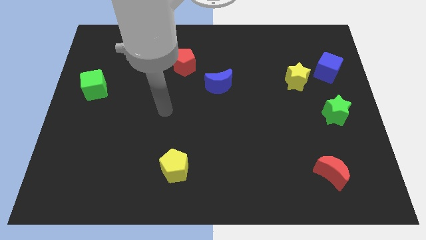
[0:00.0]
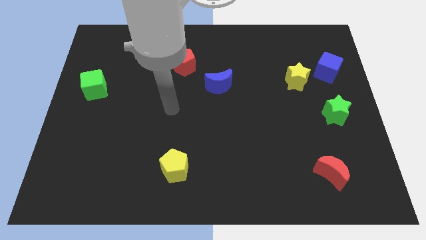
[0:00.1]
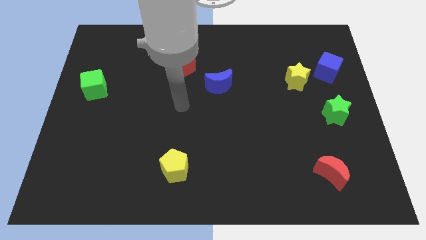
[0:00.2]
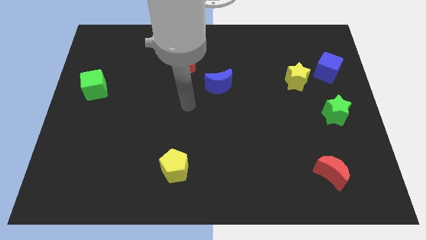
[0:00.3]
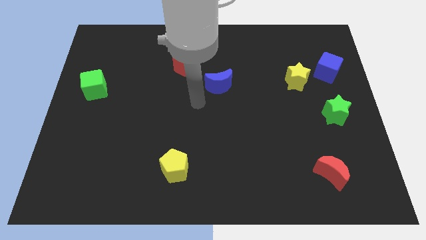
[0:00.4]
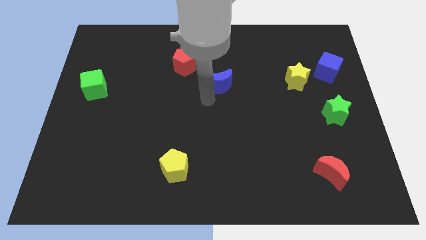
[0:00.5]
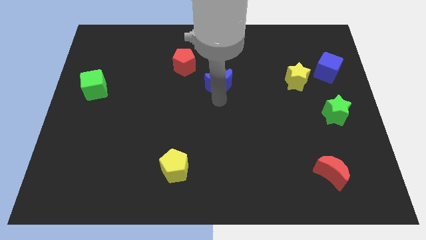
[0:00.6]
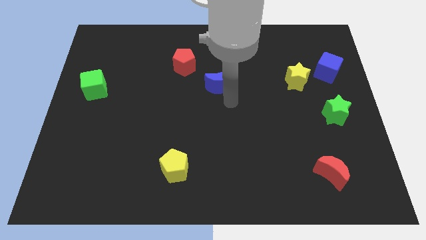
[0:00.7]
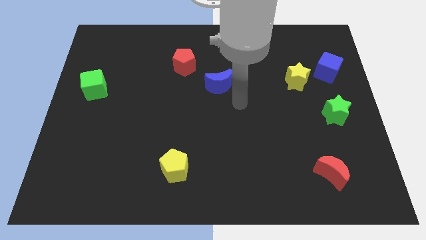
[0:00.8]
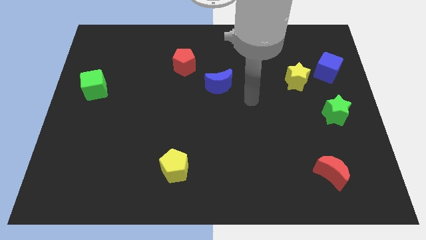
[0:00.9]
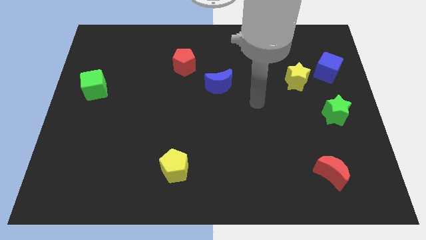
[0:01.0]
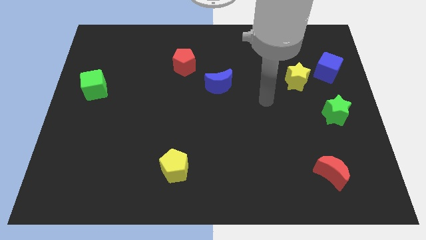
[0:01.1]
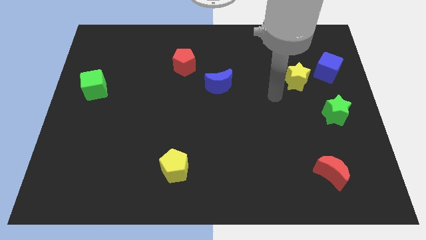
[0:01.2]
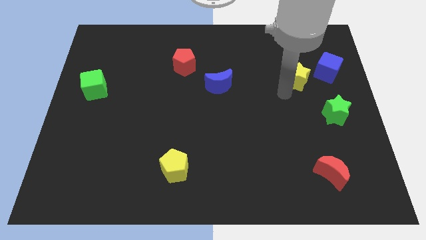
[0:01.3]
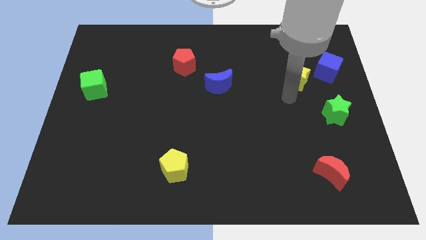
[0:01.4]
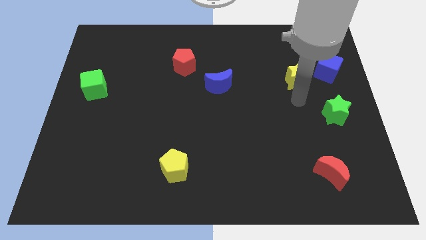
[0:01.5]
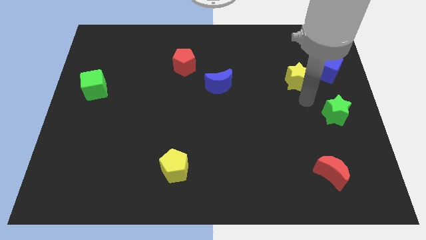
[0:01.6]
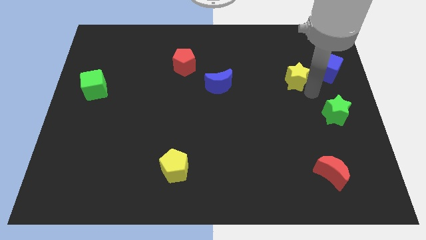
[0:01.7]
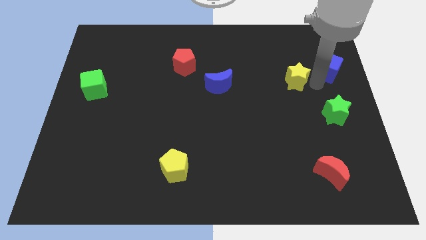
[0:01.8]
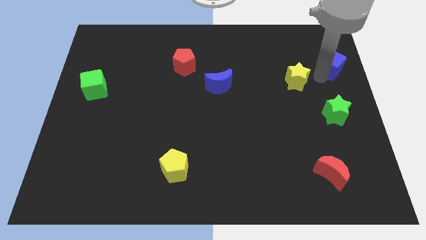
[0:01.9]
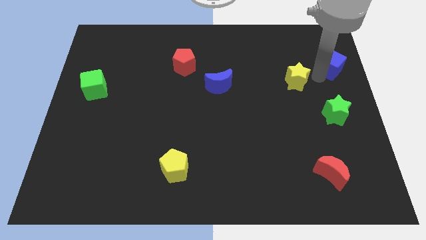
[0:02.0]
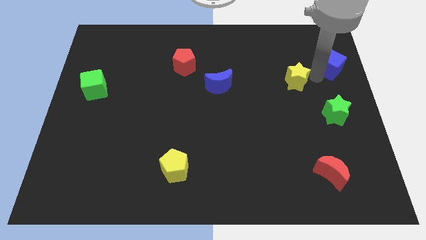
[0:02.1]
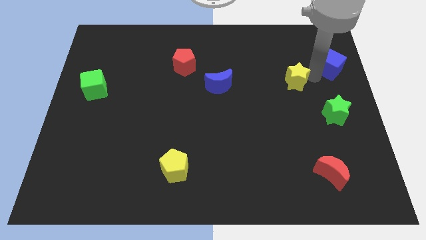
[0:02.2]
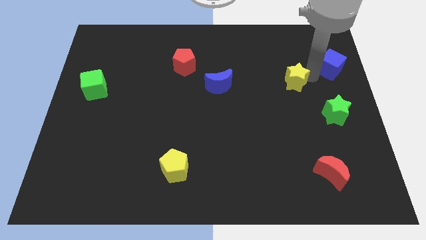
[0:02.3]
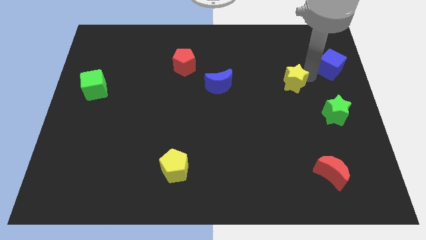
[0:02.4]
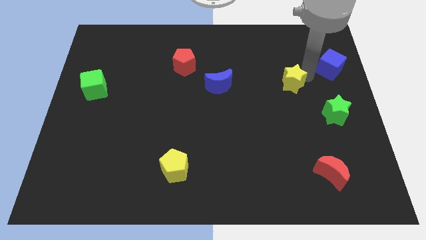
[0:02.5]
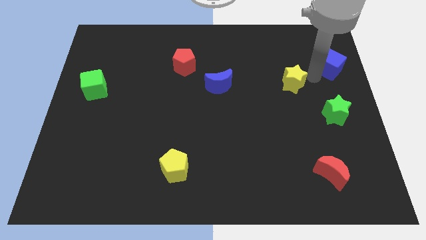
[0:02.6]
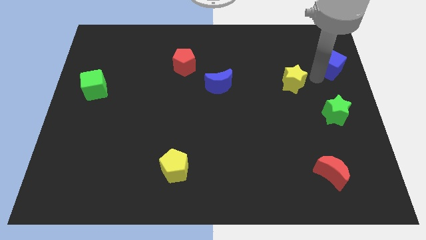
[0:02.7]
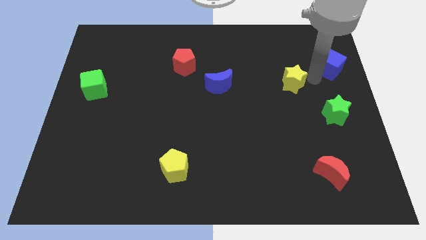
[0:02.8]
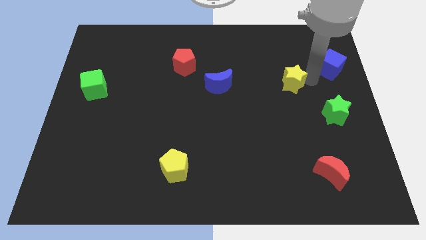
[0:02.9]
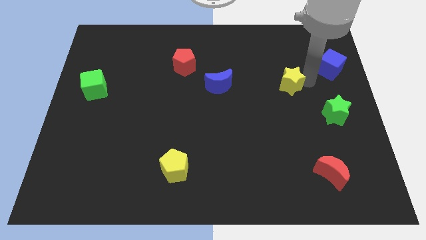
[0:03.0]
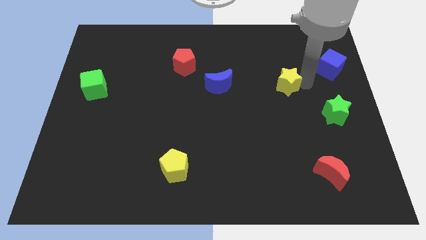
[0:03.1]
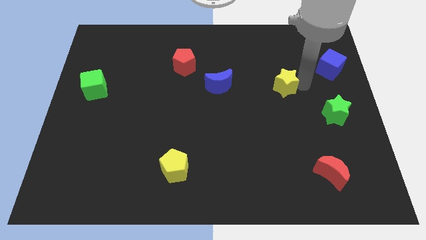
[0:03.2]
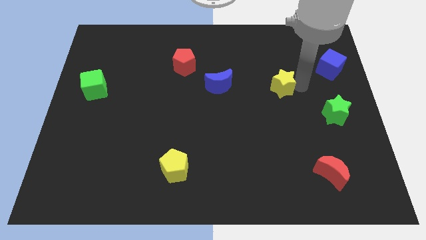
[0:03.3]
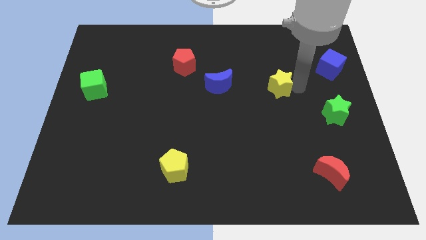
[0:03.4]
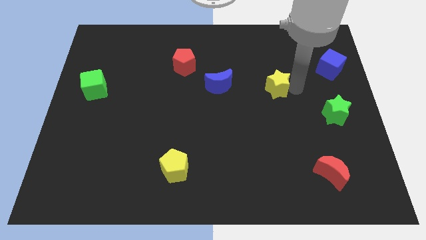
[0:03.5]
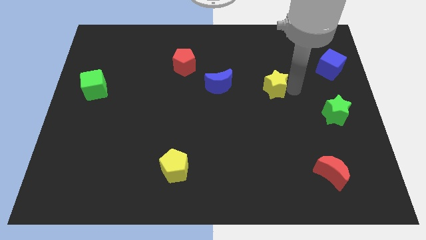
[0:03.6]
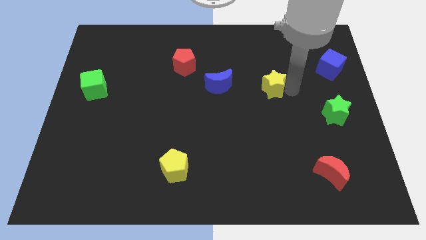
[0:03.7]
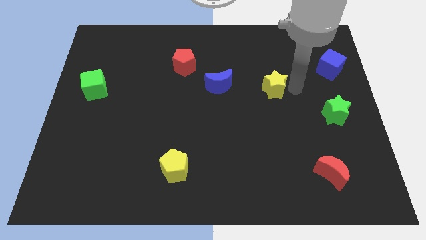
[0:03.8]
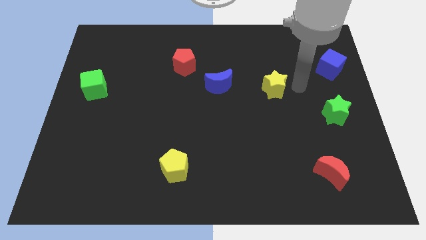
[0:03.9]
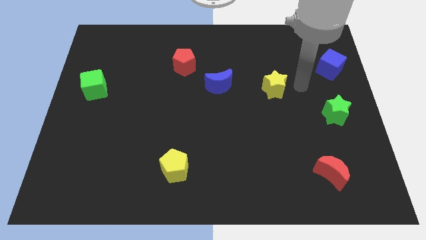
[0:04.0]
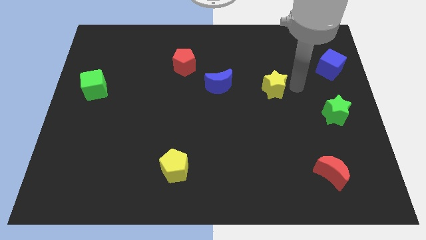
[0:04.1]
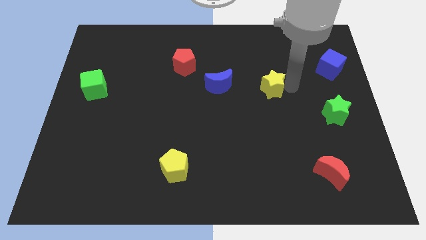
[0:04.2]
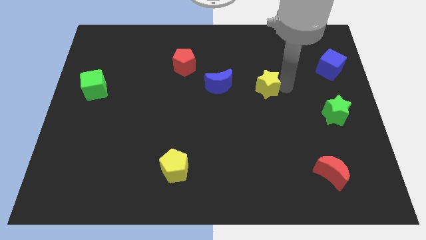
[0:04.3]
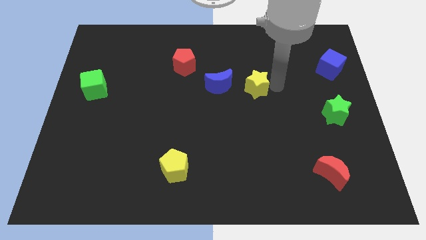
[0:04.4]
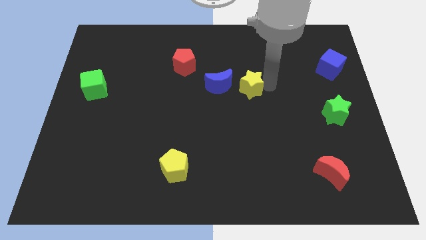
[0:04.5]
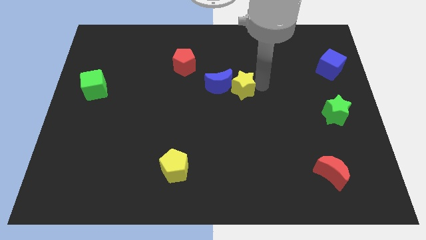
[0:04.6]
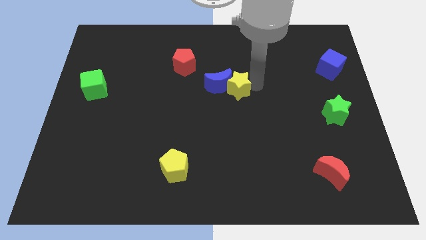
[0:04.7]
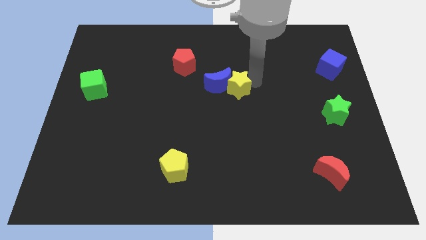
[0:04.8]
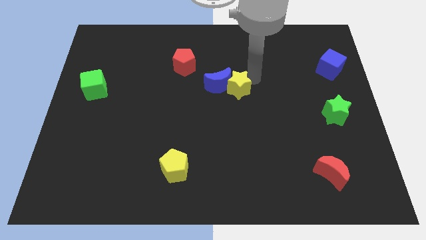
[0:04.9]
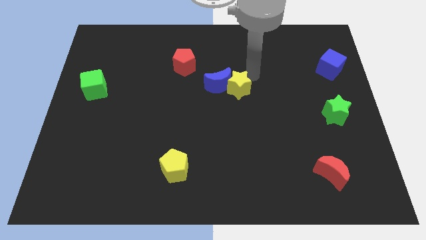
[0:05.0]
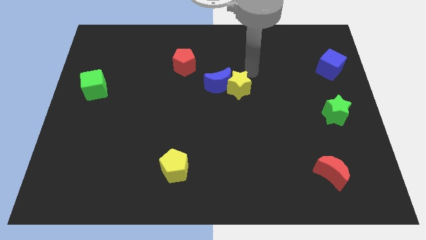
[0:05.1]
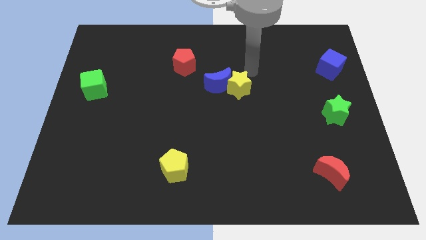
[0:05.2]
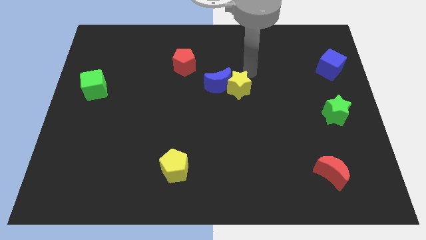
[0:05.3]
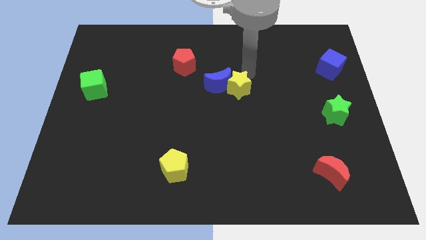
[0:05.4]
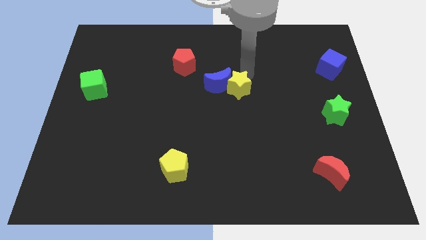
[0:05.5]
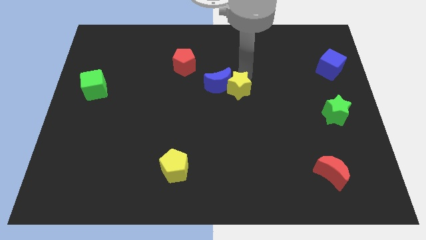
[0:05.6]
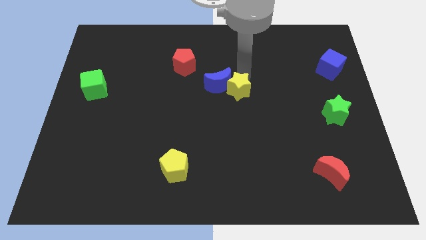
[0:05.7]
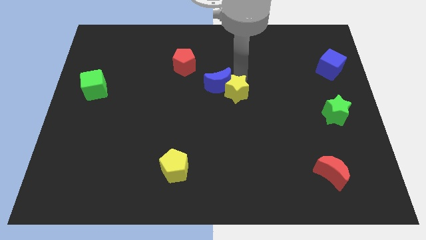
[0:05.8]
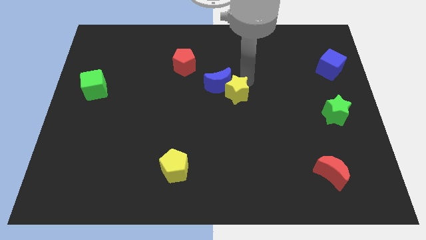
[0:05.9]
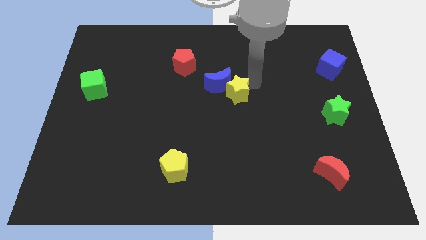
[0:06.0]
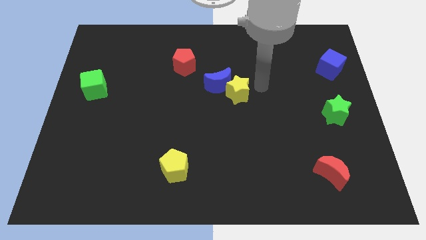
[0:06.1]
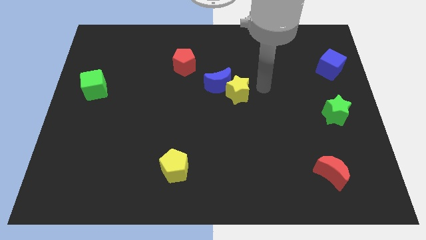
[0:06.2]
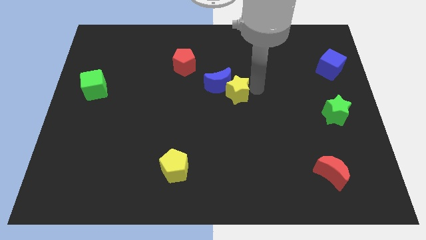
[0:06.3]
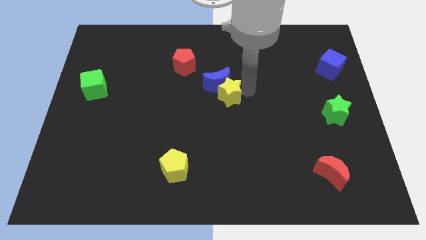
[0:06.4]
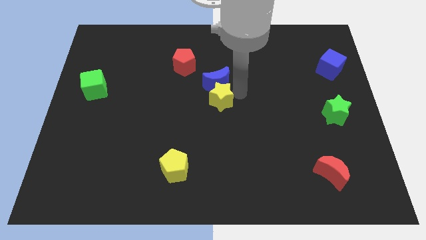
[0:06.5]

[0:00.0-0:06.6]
push the yellow star to the bottom left of the blue moon

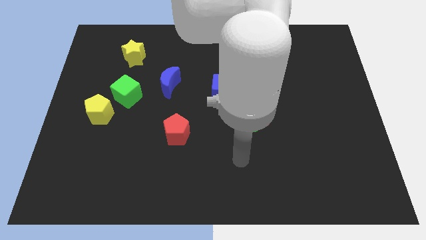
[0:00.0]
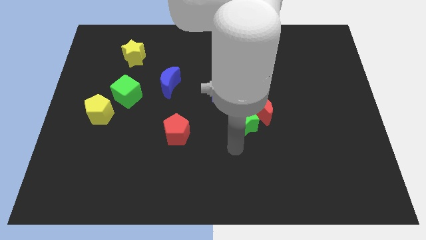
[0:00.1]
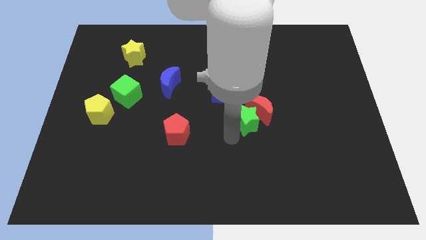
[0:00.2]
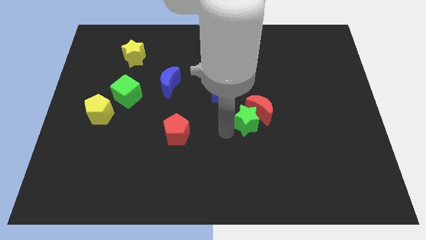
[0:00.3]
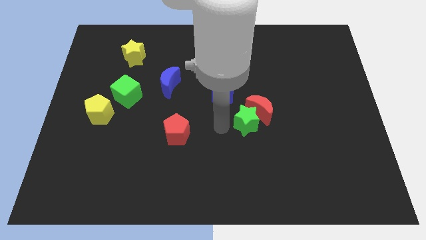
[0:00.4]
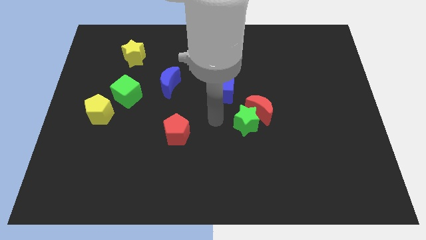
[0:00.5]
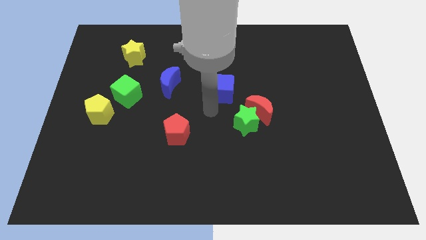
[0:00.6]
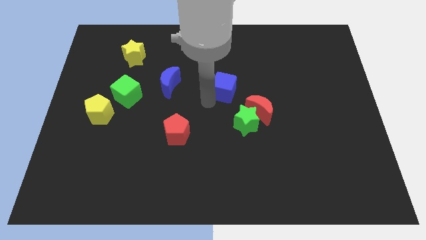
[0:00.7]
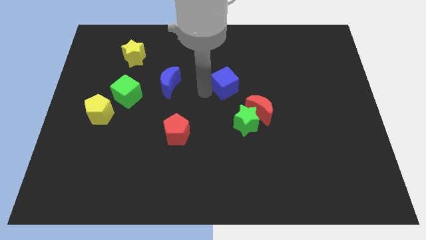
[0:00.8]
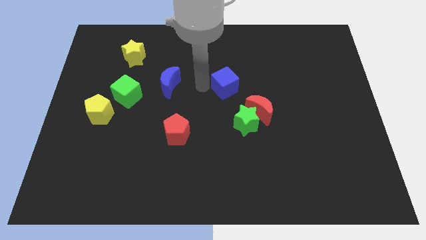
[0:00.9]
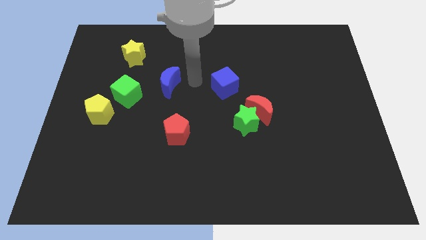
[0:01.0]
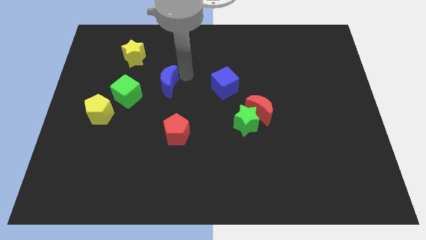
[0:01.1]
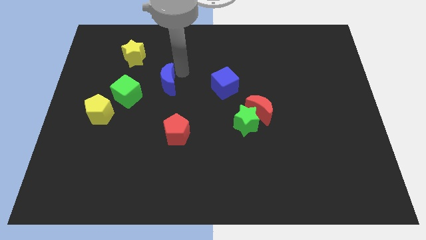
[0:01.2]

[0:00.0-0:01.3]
push the yellow star to the top left side of the blue moon
